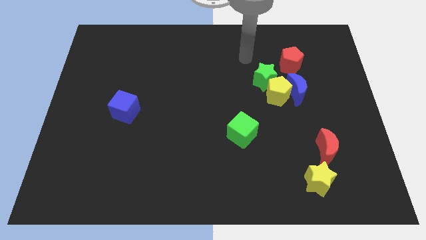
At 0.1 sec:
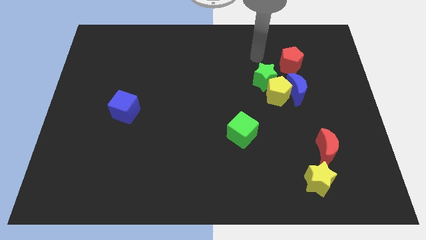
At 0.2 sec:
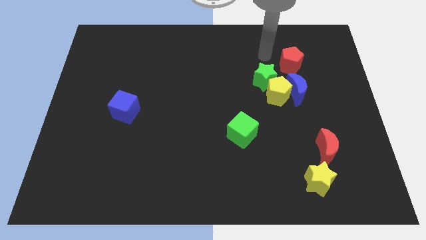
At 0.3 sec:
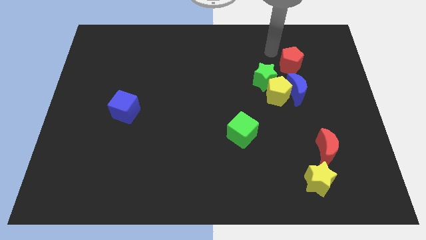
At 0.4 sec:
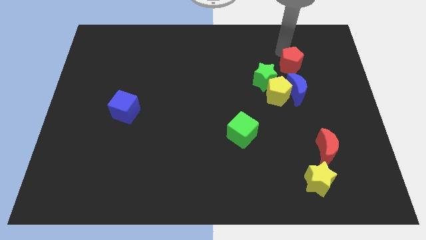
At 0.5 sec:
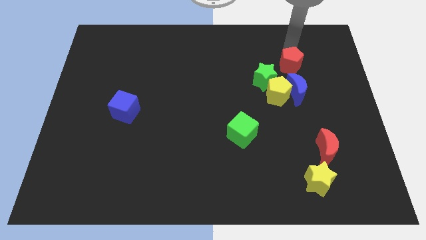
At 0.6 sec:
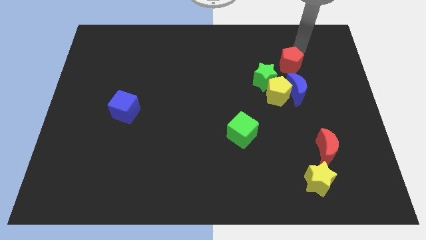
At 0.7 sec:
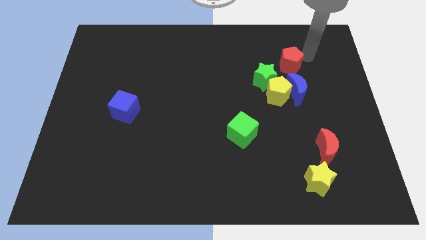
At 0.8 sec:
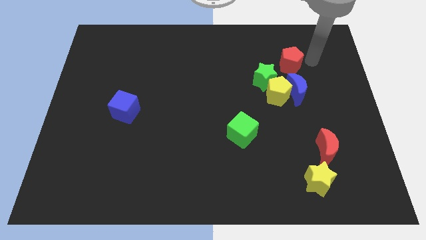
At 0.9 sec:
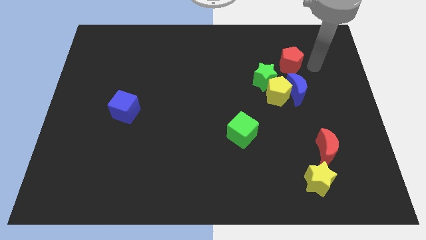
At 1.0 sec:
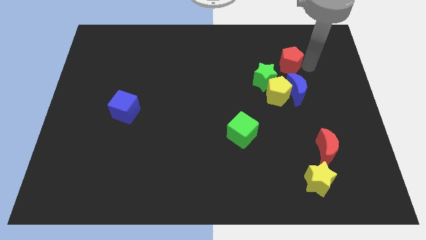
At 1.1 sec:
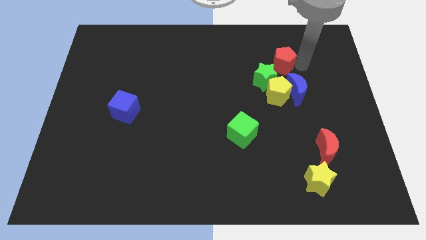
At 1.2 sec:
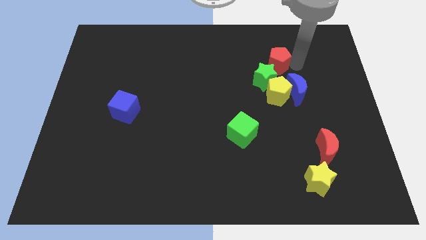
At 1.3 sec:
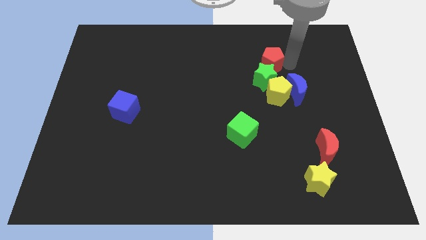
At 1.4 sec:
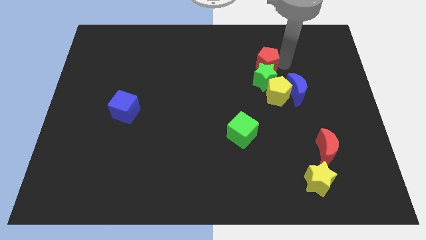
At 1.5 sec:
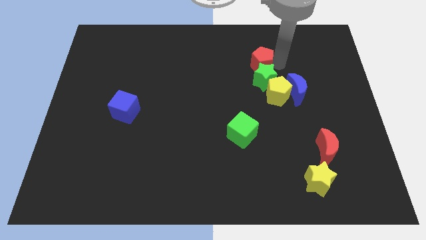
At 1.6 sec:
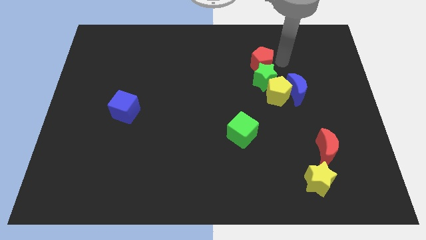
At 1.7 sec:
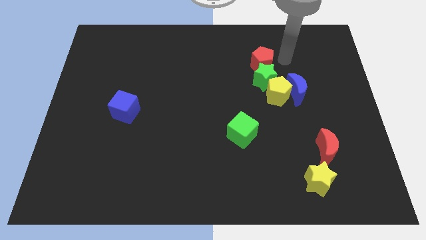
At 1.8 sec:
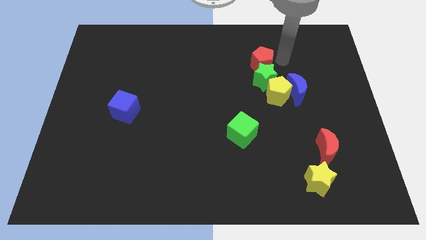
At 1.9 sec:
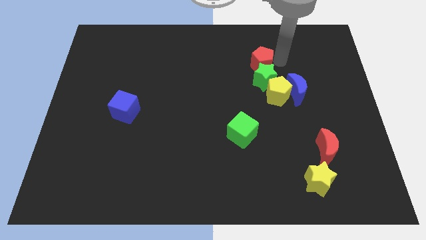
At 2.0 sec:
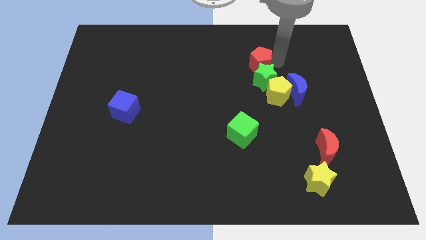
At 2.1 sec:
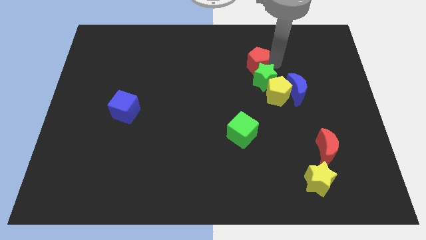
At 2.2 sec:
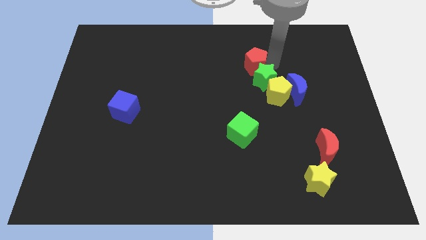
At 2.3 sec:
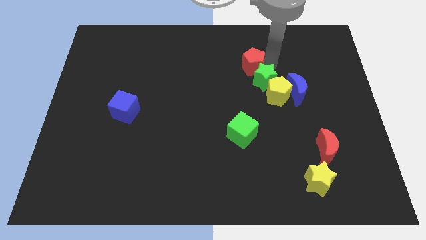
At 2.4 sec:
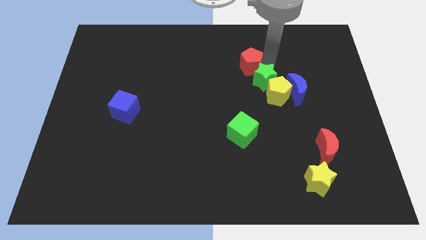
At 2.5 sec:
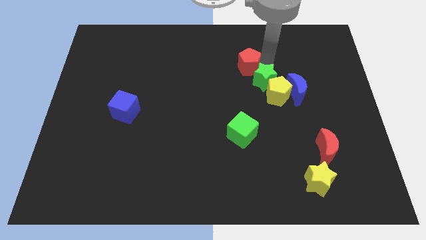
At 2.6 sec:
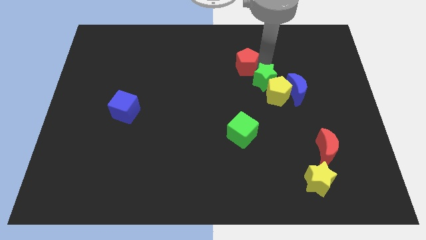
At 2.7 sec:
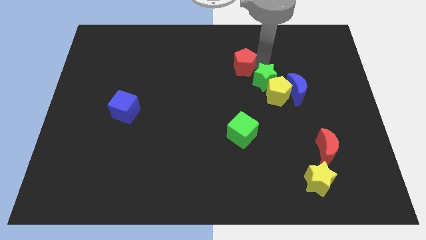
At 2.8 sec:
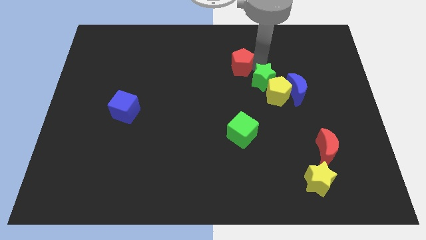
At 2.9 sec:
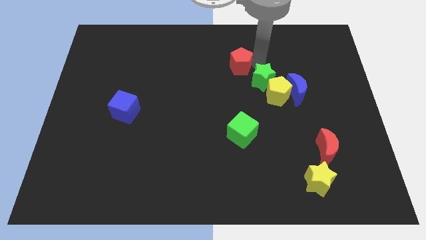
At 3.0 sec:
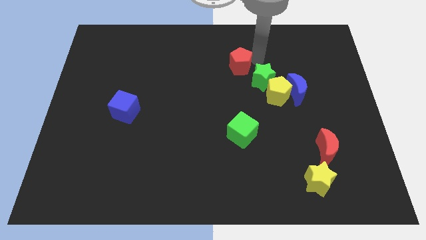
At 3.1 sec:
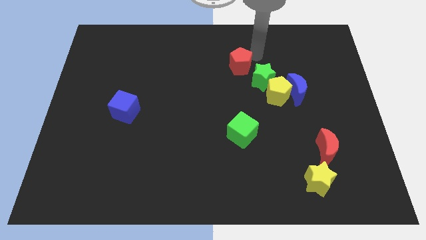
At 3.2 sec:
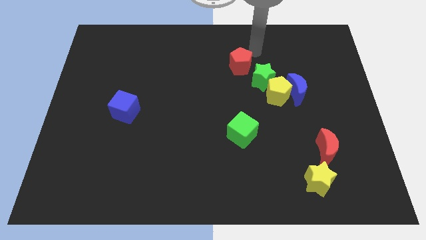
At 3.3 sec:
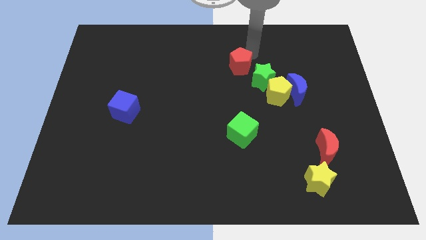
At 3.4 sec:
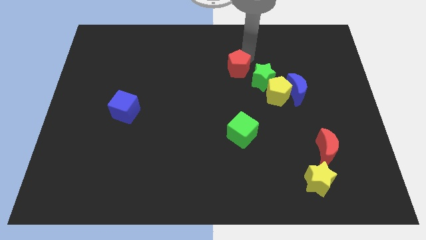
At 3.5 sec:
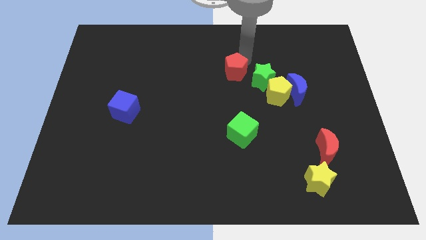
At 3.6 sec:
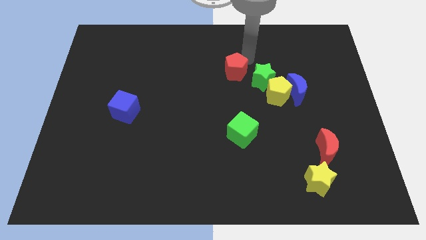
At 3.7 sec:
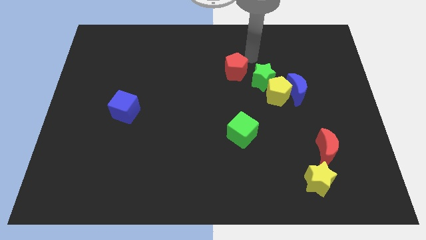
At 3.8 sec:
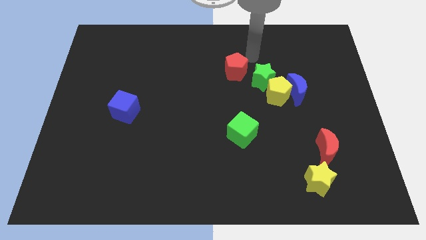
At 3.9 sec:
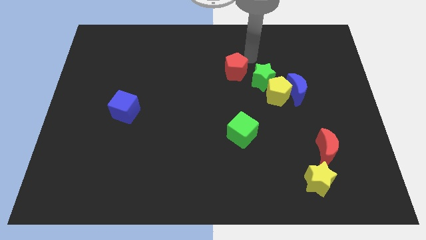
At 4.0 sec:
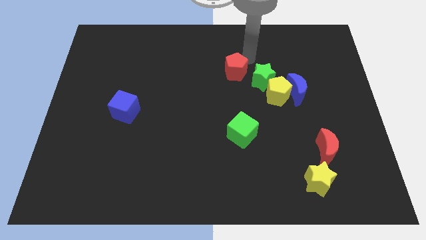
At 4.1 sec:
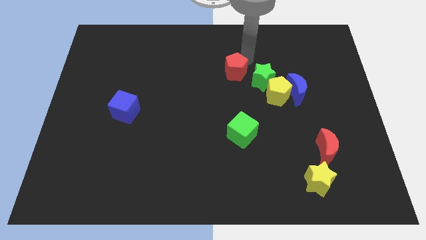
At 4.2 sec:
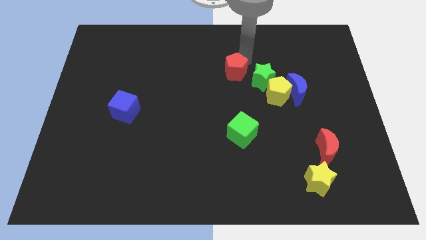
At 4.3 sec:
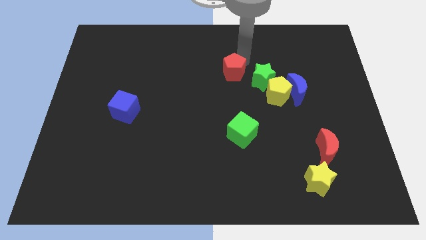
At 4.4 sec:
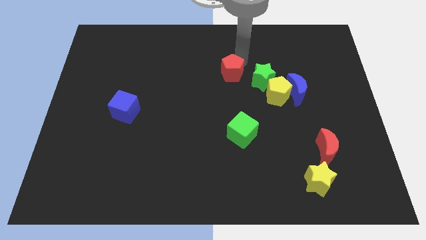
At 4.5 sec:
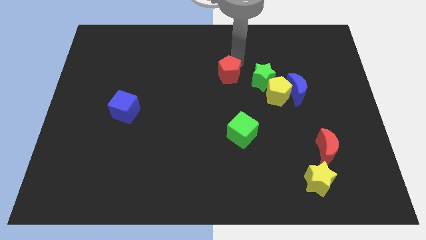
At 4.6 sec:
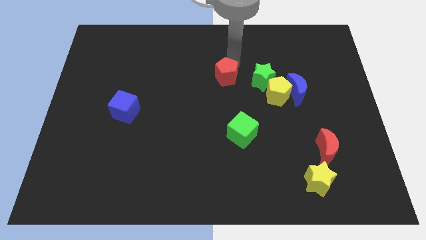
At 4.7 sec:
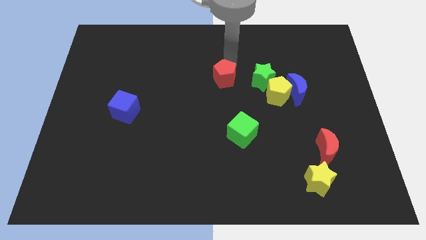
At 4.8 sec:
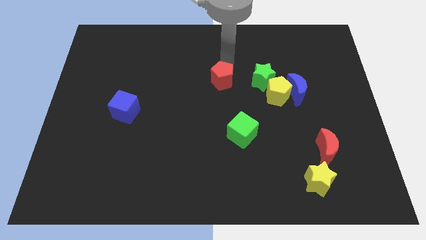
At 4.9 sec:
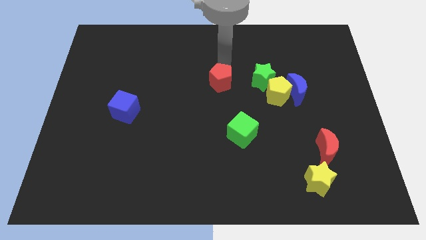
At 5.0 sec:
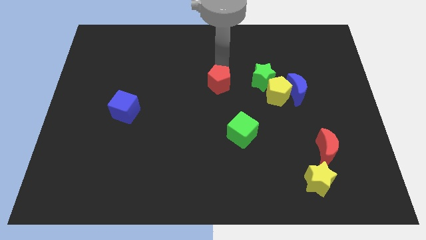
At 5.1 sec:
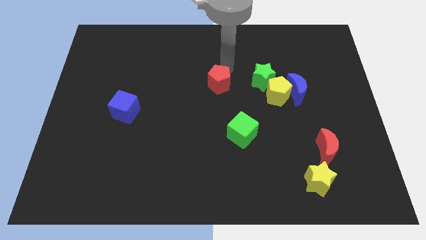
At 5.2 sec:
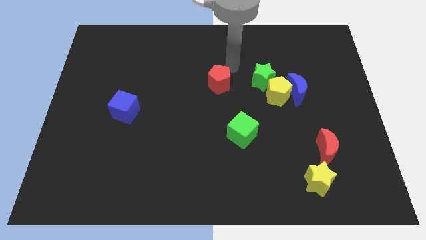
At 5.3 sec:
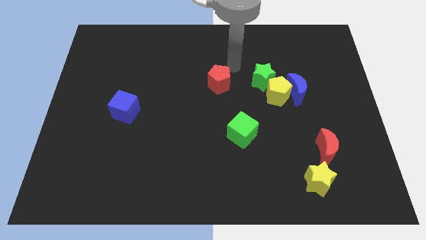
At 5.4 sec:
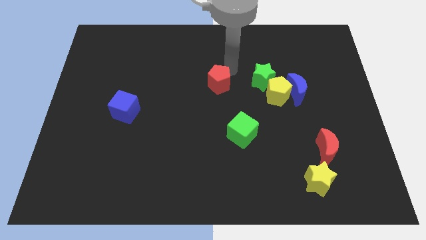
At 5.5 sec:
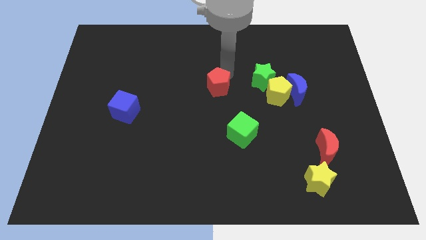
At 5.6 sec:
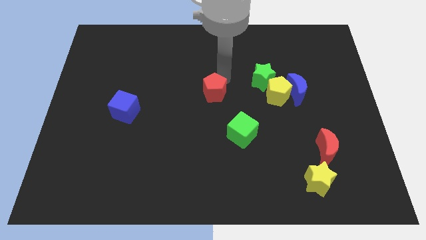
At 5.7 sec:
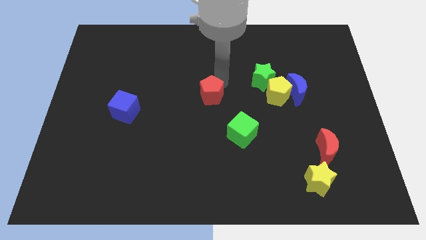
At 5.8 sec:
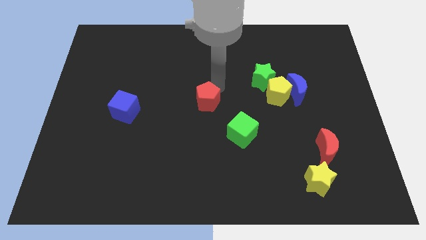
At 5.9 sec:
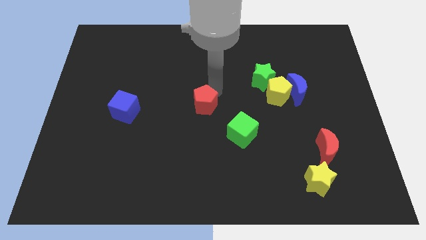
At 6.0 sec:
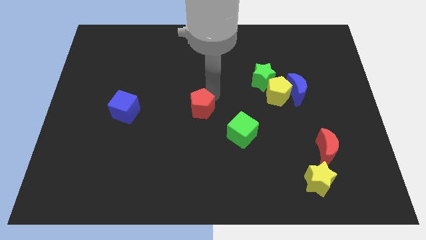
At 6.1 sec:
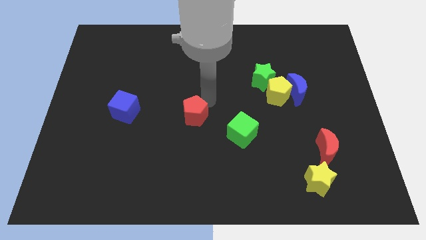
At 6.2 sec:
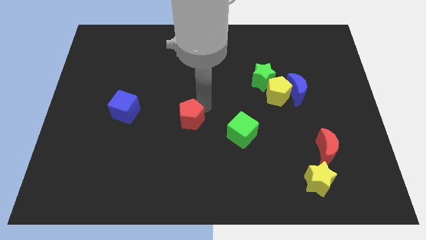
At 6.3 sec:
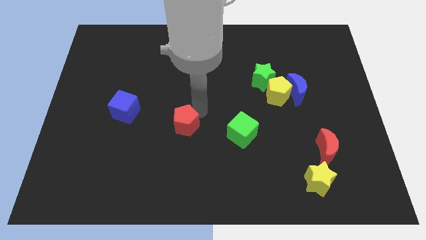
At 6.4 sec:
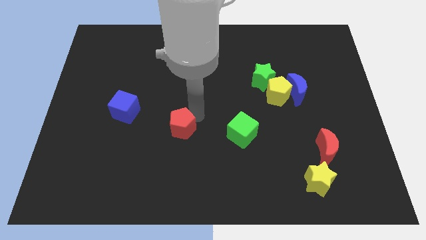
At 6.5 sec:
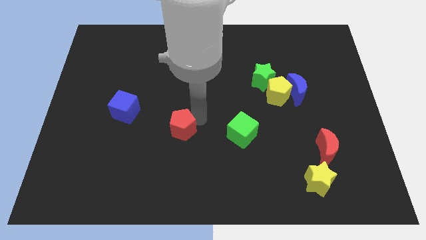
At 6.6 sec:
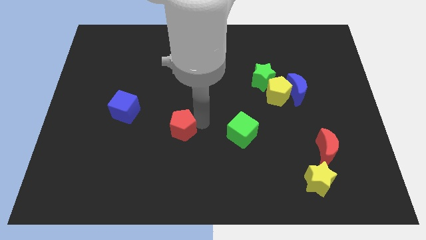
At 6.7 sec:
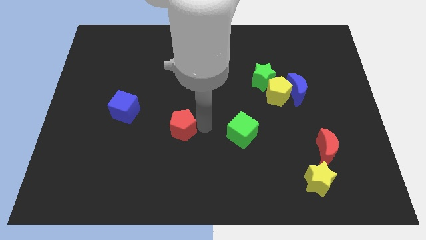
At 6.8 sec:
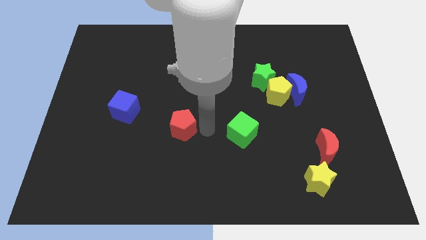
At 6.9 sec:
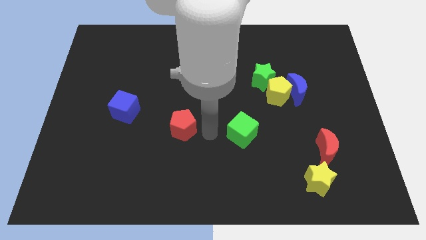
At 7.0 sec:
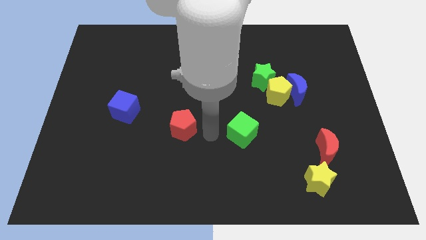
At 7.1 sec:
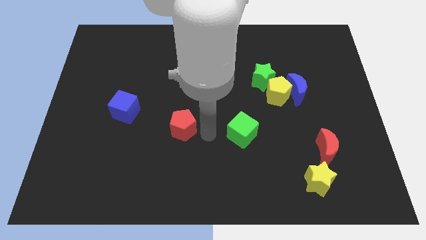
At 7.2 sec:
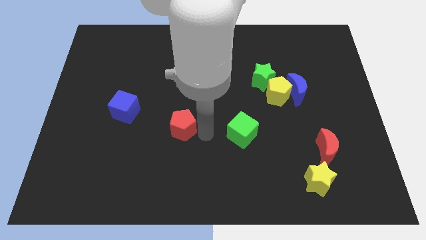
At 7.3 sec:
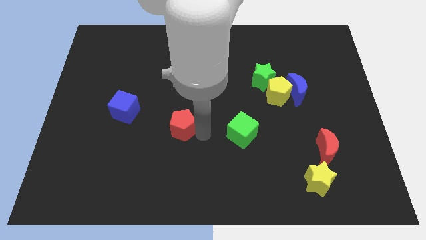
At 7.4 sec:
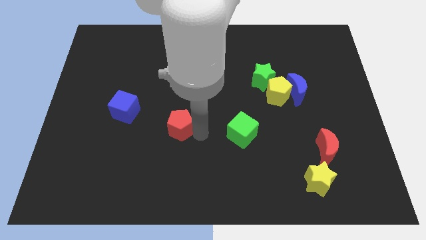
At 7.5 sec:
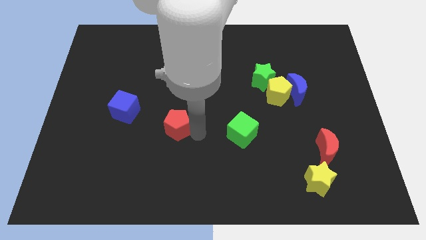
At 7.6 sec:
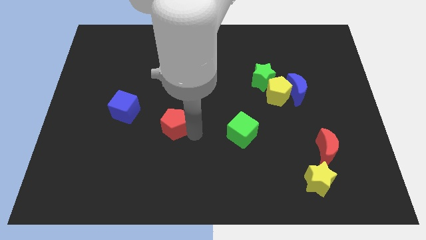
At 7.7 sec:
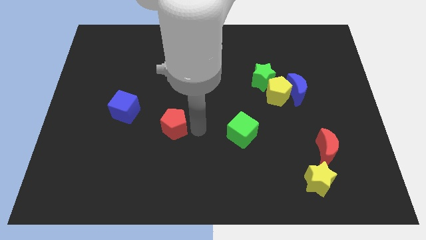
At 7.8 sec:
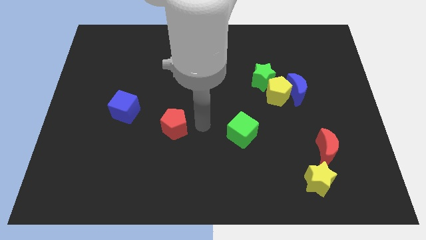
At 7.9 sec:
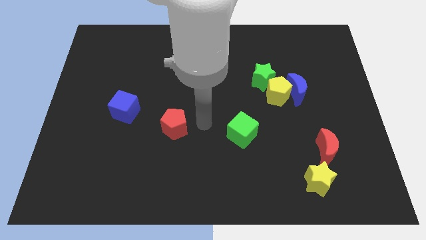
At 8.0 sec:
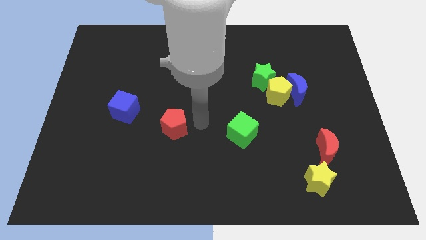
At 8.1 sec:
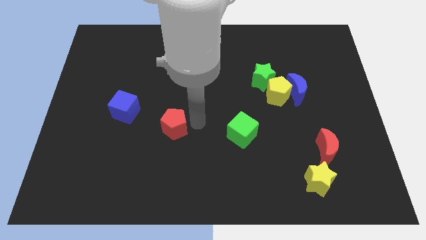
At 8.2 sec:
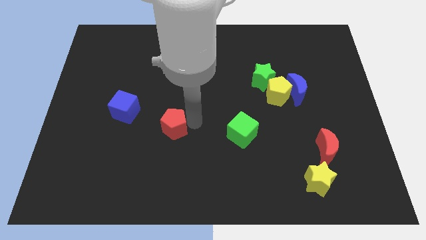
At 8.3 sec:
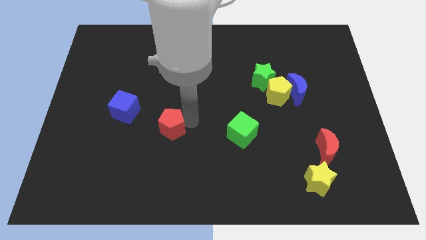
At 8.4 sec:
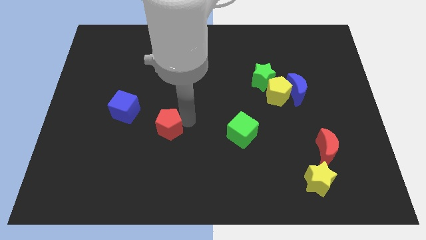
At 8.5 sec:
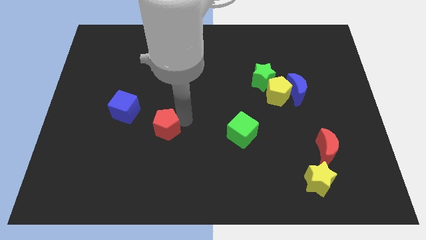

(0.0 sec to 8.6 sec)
move the red pentagon to the bottom right side of the blue cube
